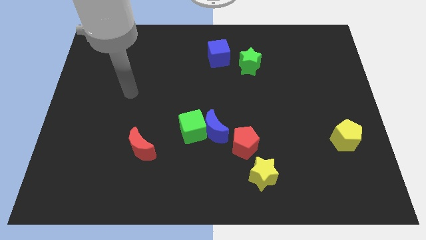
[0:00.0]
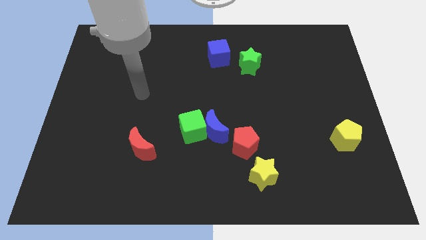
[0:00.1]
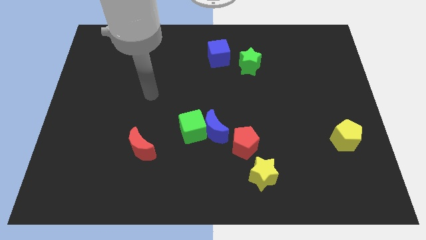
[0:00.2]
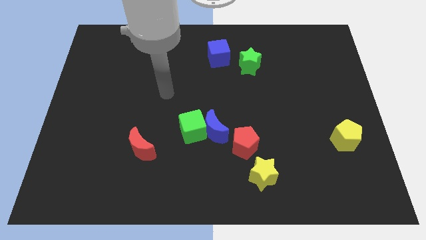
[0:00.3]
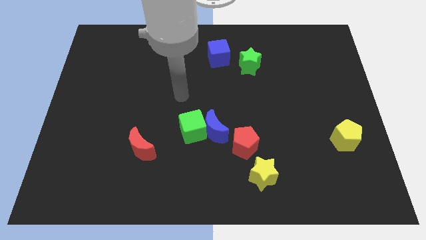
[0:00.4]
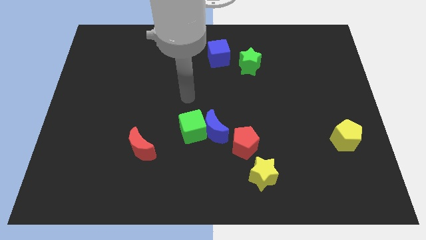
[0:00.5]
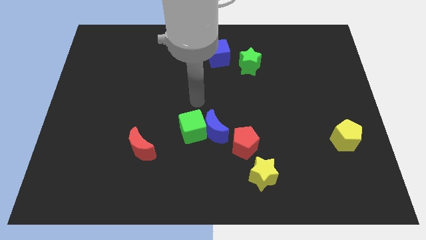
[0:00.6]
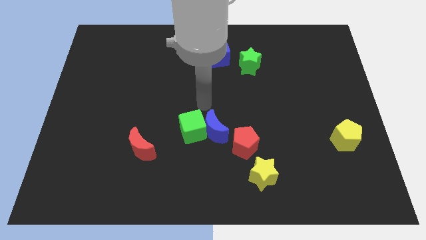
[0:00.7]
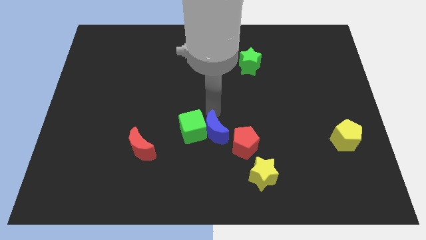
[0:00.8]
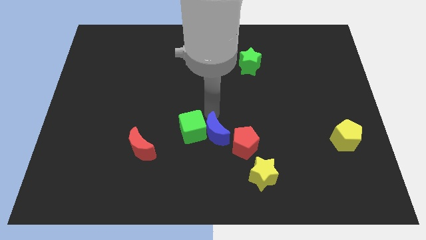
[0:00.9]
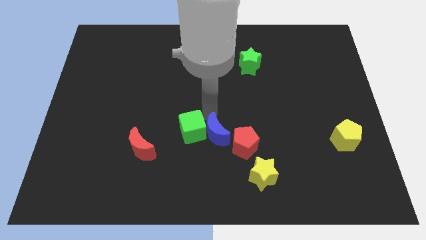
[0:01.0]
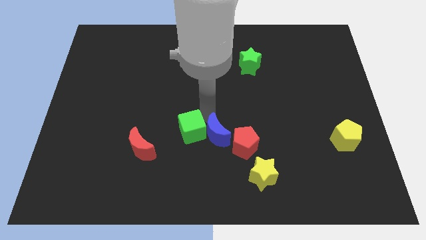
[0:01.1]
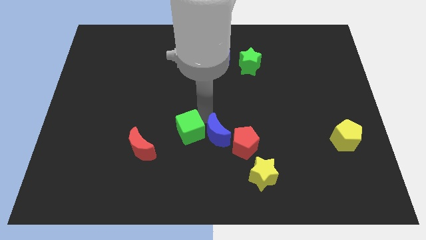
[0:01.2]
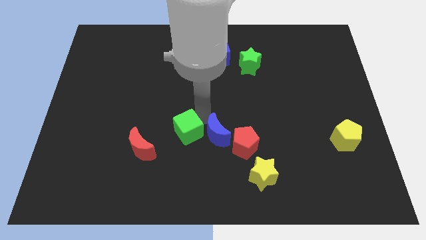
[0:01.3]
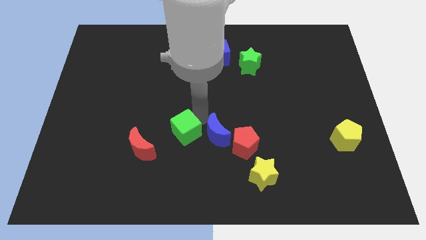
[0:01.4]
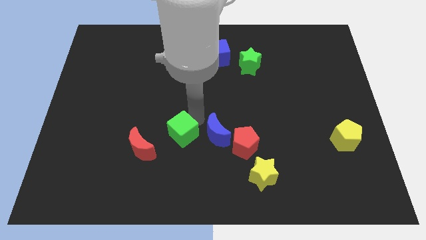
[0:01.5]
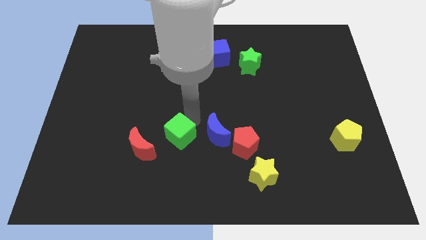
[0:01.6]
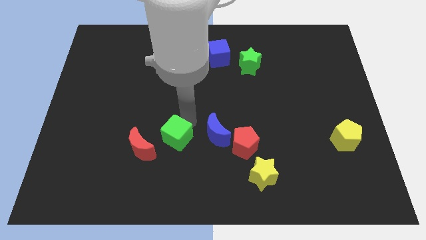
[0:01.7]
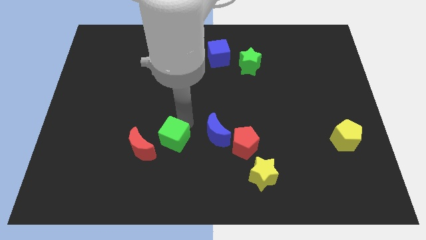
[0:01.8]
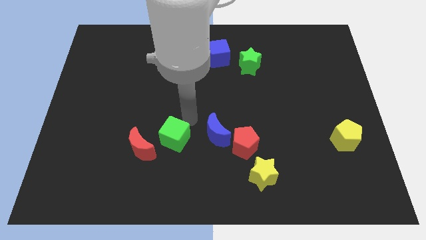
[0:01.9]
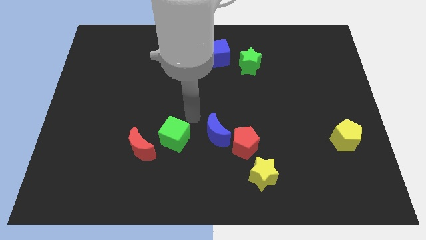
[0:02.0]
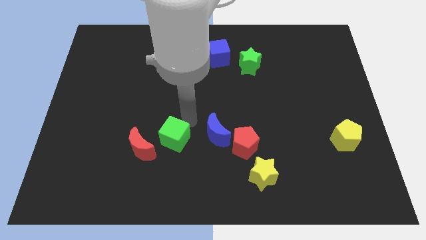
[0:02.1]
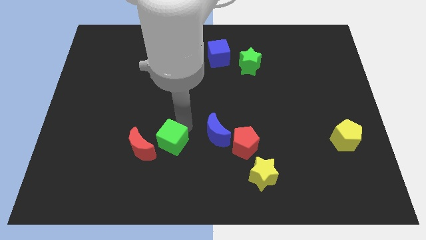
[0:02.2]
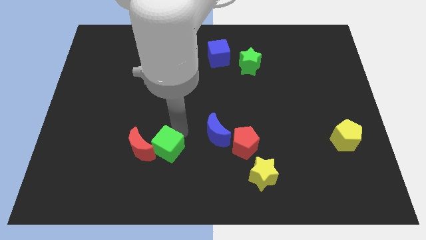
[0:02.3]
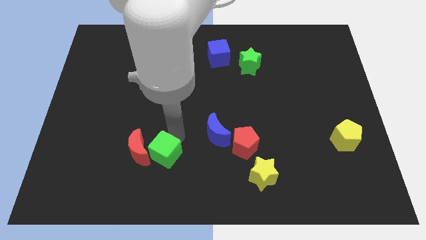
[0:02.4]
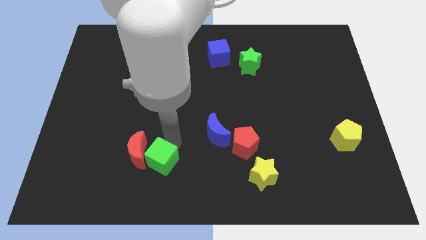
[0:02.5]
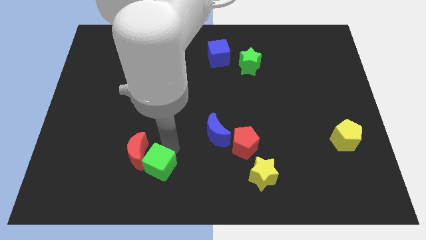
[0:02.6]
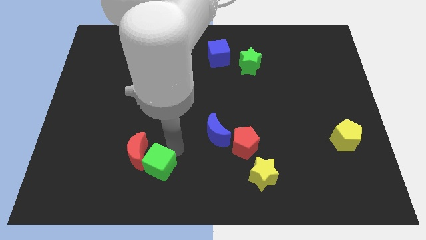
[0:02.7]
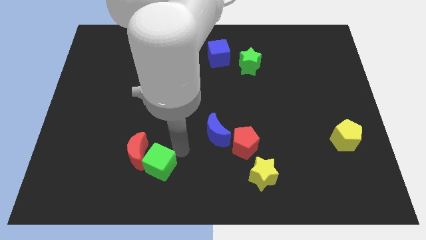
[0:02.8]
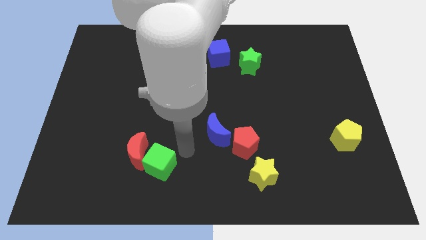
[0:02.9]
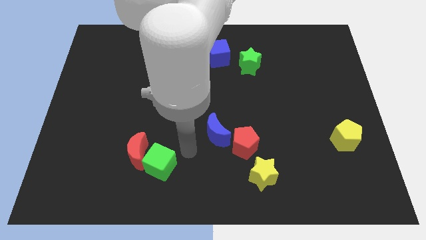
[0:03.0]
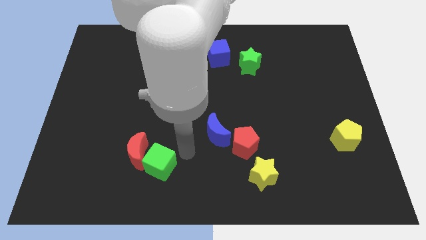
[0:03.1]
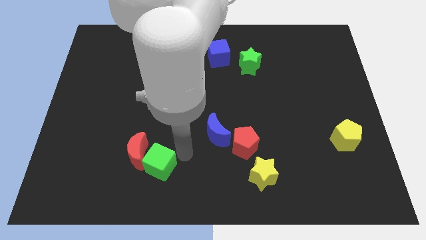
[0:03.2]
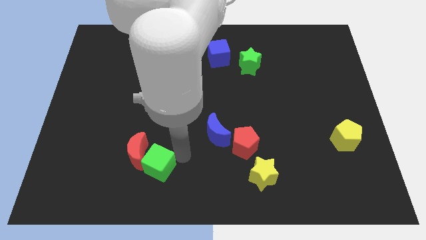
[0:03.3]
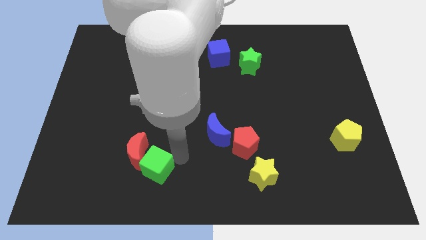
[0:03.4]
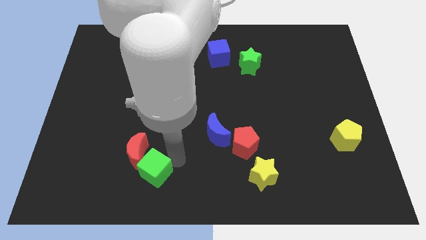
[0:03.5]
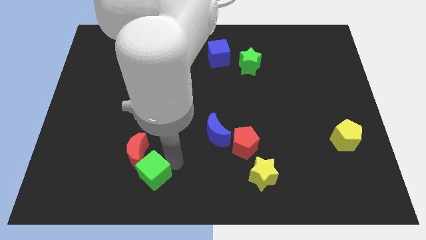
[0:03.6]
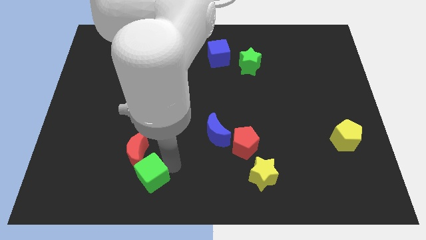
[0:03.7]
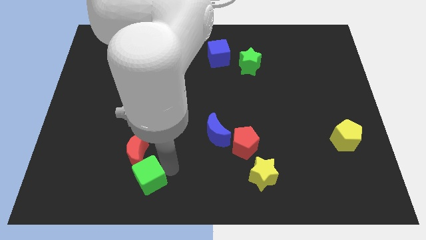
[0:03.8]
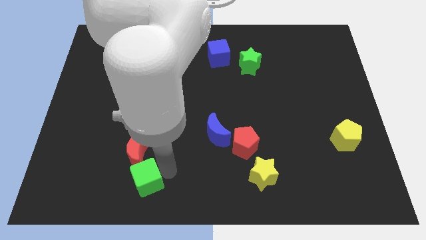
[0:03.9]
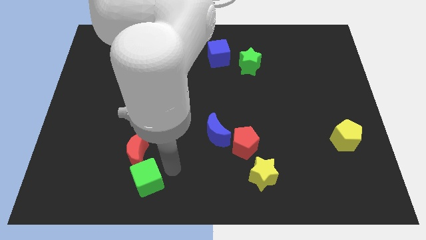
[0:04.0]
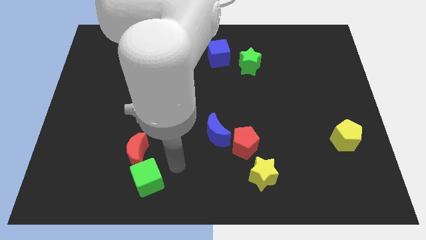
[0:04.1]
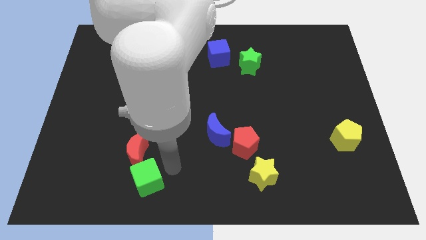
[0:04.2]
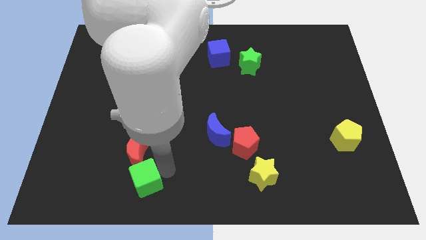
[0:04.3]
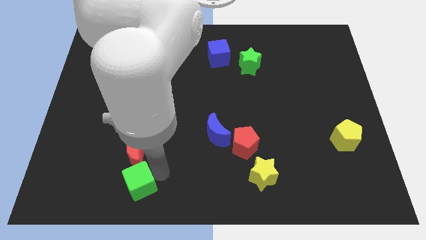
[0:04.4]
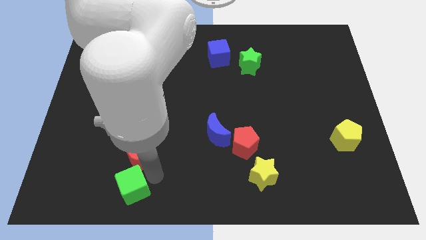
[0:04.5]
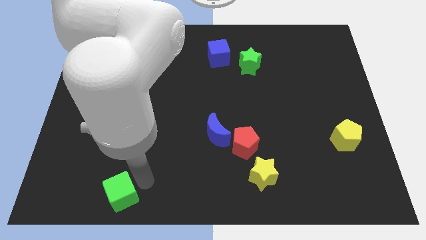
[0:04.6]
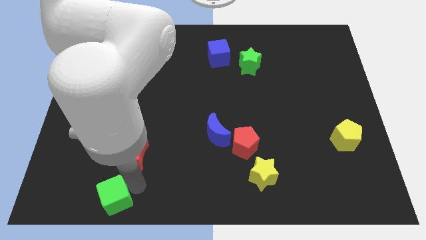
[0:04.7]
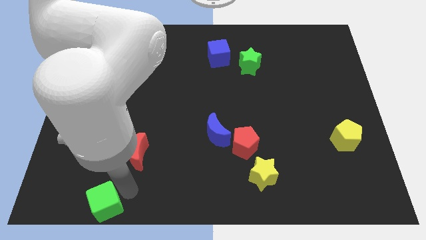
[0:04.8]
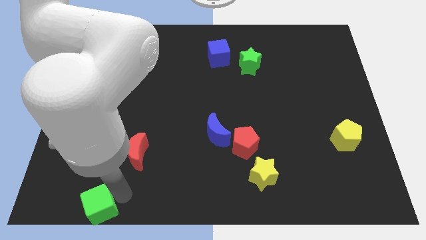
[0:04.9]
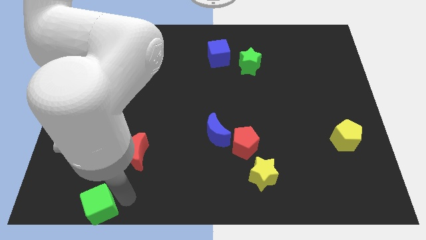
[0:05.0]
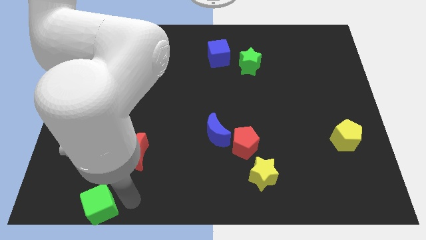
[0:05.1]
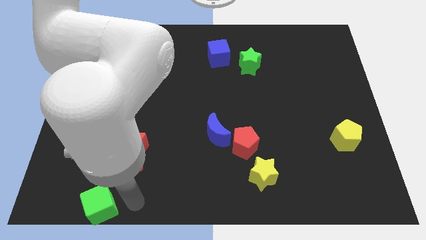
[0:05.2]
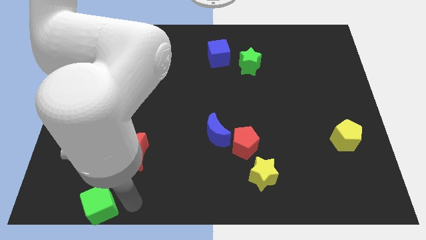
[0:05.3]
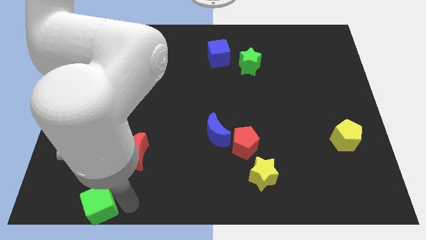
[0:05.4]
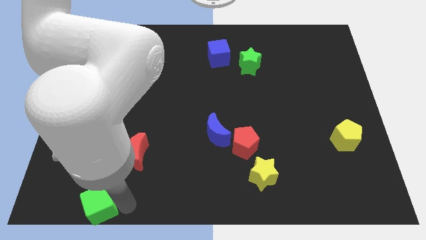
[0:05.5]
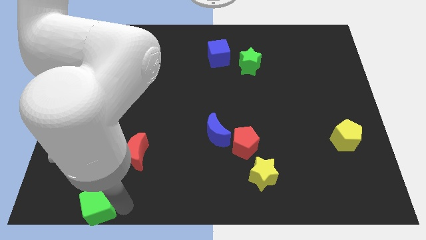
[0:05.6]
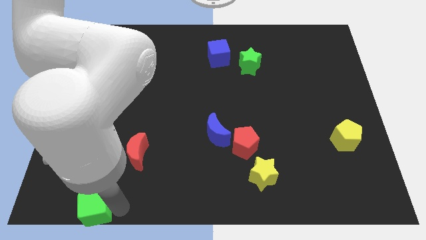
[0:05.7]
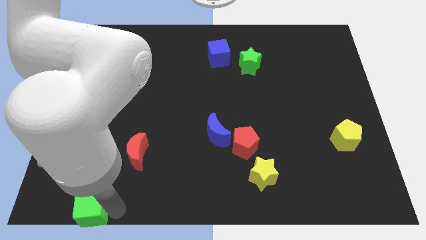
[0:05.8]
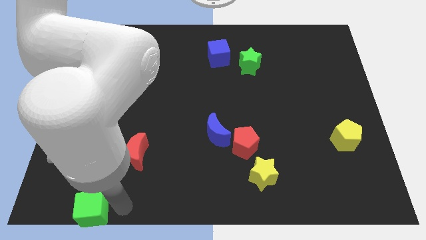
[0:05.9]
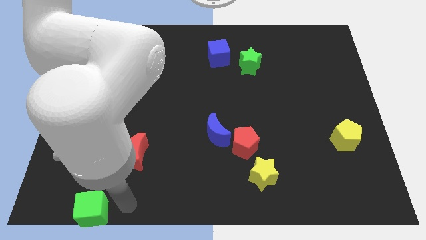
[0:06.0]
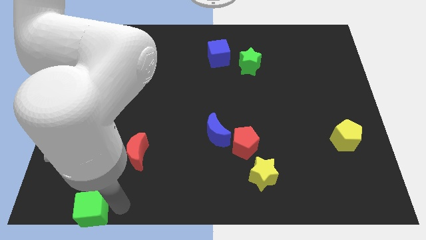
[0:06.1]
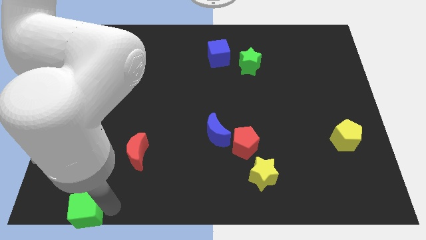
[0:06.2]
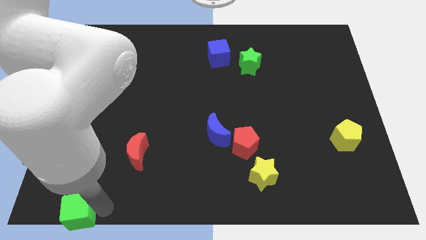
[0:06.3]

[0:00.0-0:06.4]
slide the green cube to the bottom left

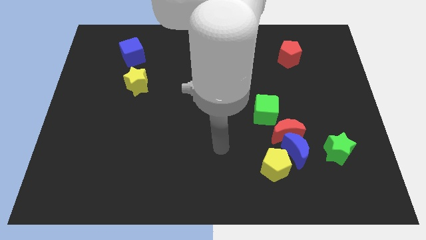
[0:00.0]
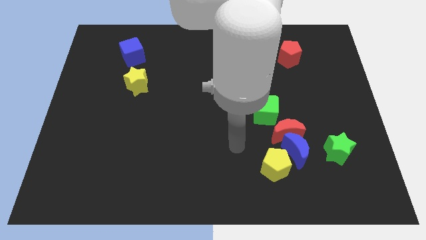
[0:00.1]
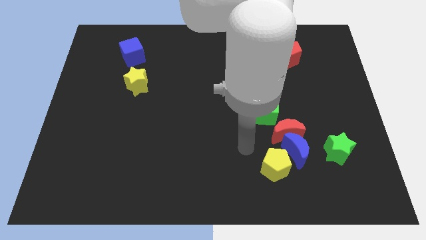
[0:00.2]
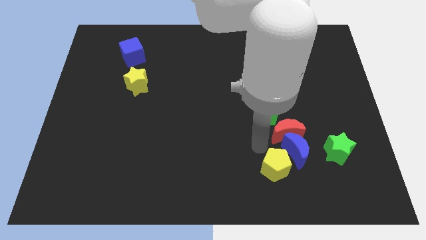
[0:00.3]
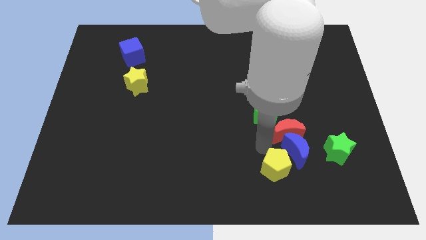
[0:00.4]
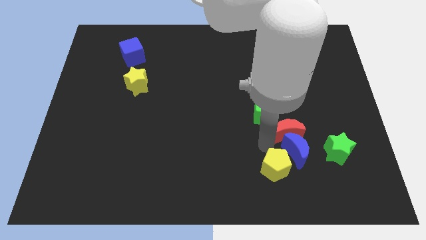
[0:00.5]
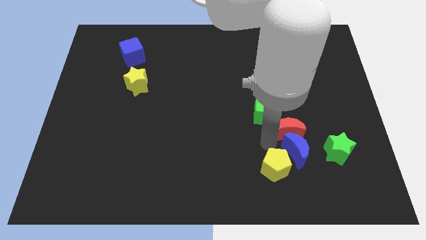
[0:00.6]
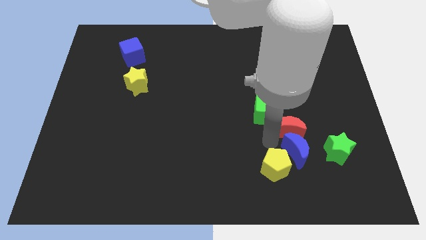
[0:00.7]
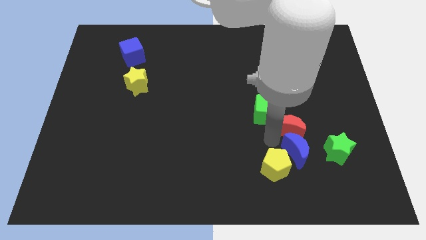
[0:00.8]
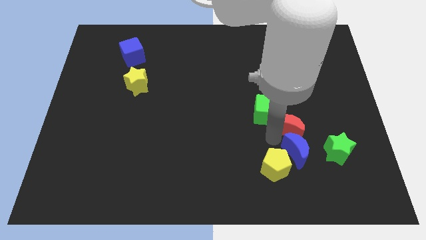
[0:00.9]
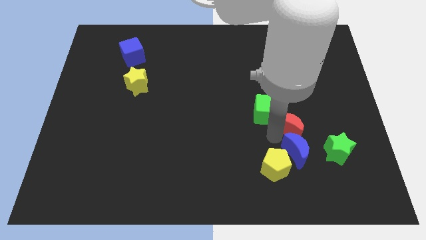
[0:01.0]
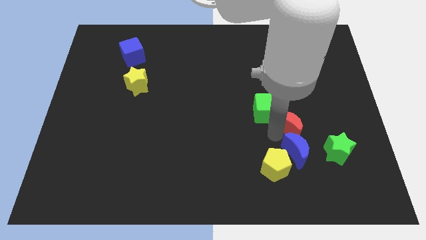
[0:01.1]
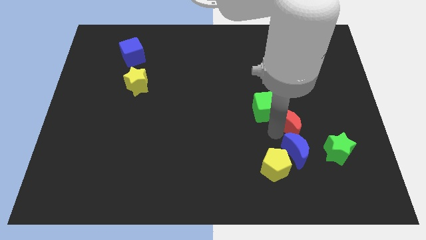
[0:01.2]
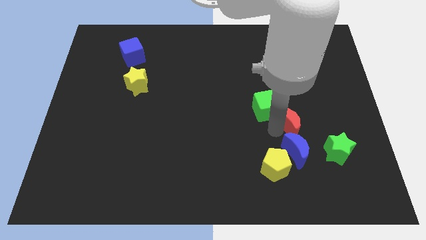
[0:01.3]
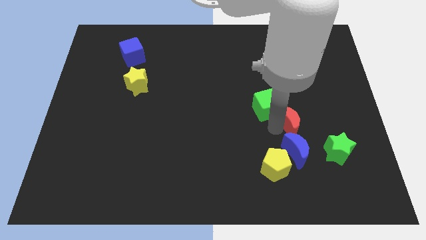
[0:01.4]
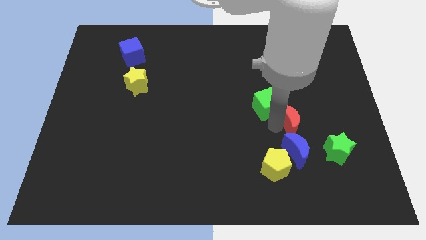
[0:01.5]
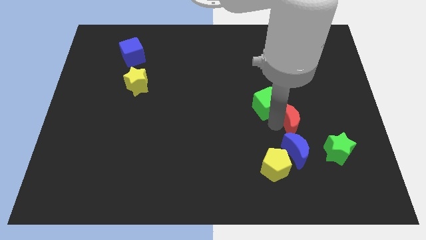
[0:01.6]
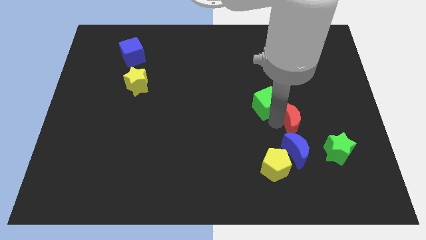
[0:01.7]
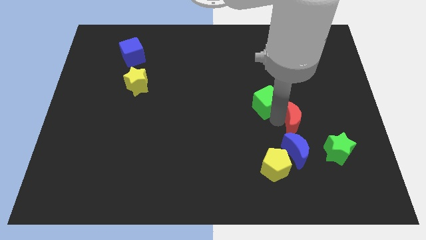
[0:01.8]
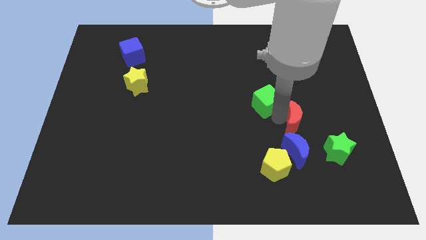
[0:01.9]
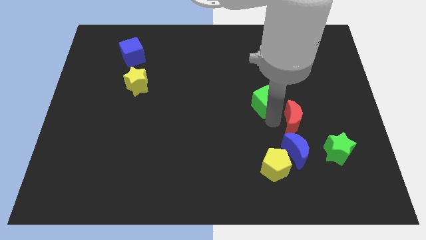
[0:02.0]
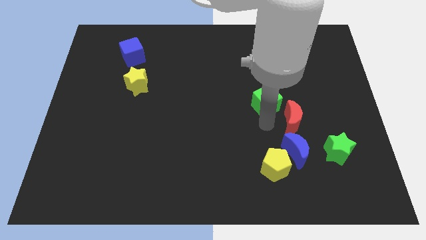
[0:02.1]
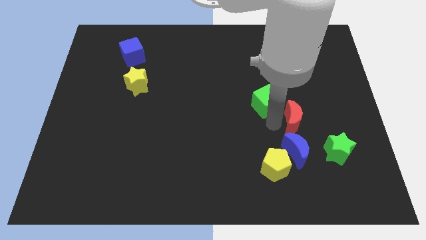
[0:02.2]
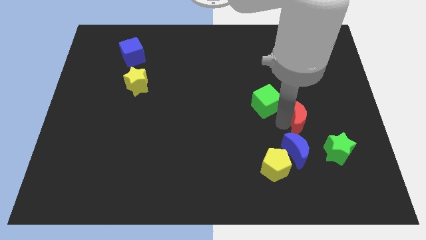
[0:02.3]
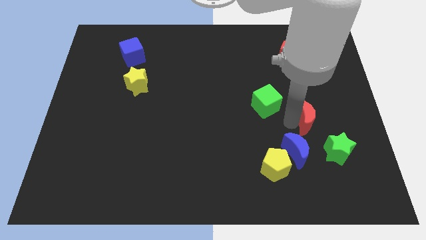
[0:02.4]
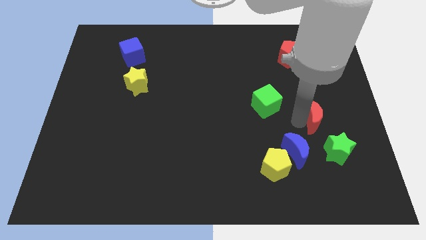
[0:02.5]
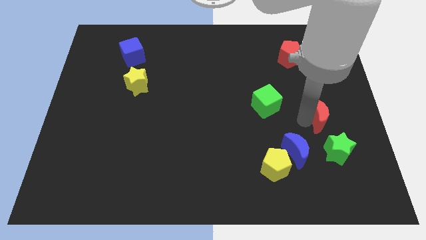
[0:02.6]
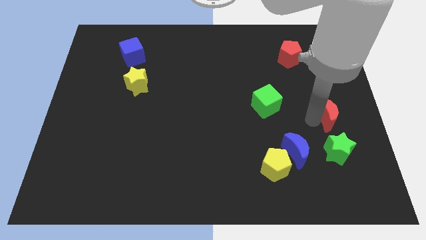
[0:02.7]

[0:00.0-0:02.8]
put the red moon to the right side
